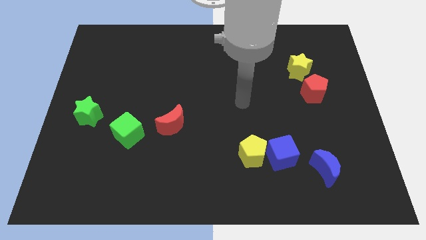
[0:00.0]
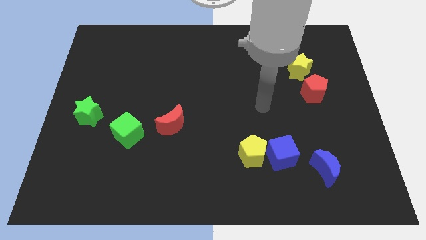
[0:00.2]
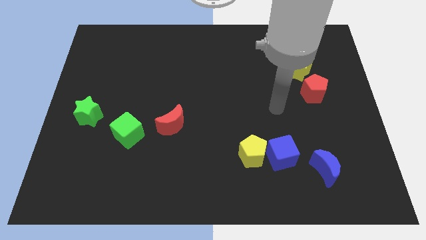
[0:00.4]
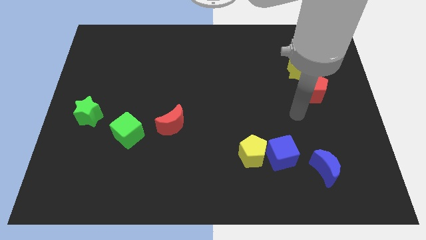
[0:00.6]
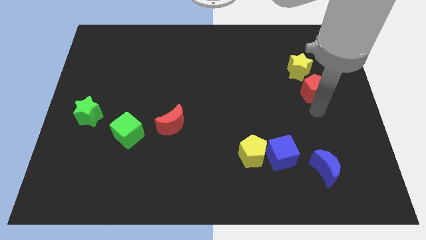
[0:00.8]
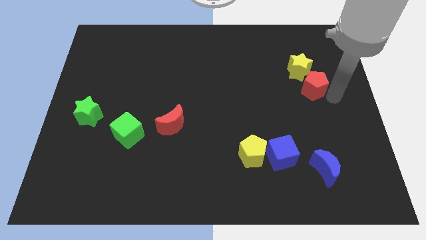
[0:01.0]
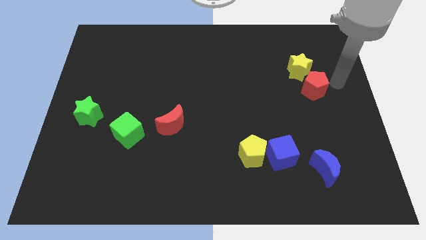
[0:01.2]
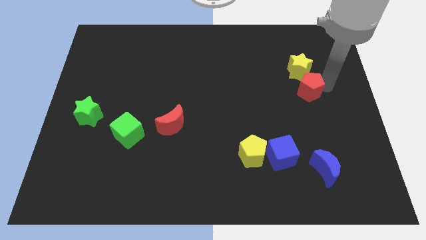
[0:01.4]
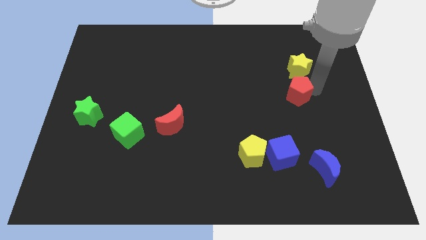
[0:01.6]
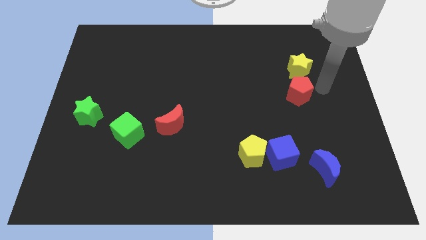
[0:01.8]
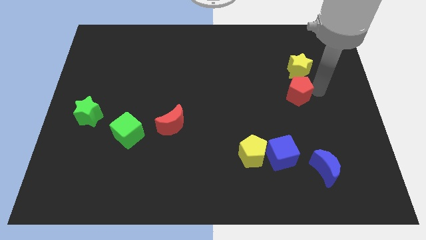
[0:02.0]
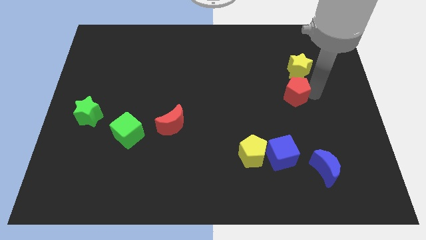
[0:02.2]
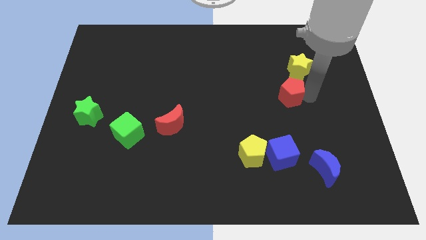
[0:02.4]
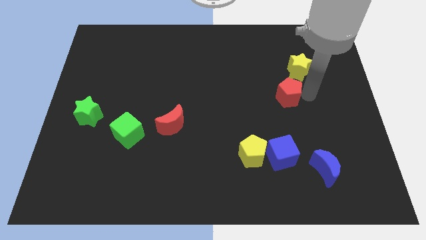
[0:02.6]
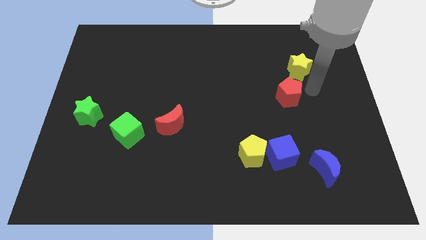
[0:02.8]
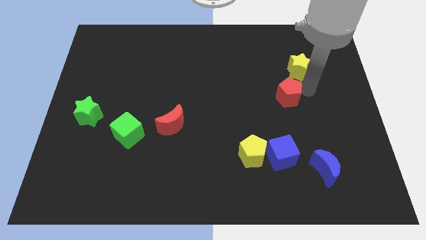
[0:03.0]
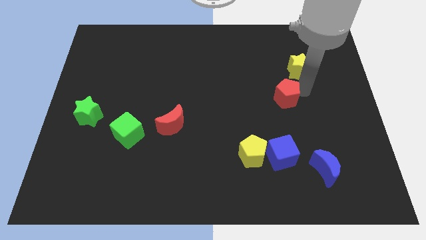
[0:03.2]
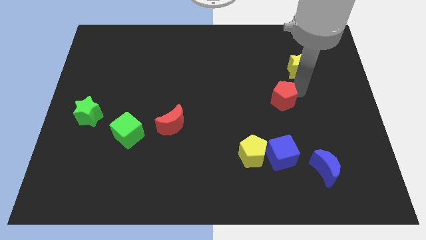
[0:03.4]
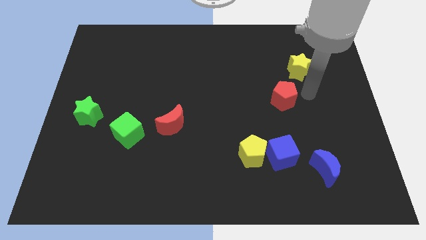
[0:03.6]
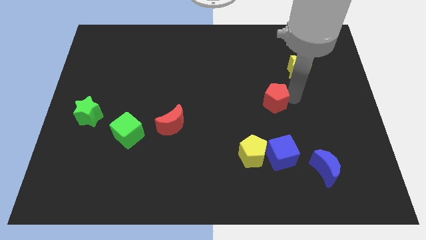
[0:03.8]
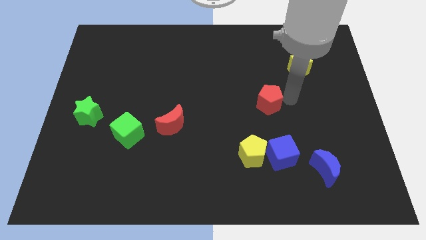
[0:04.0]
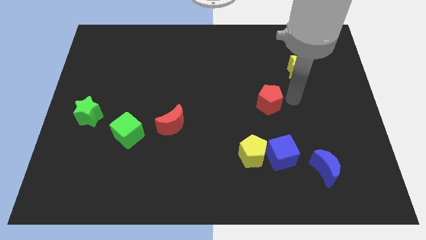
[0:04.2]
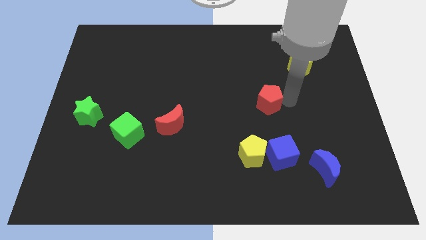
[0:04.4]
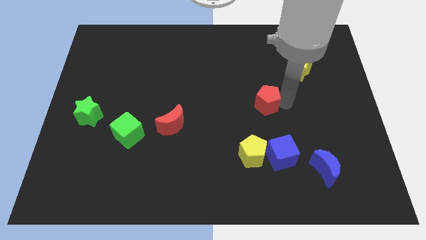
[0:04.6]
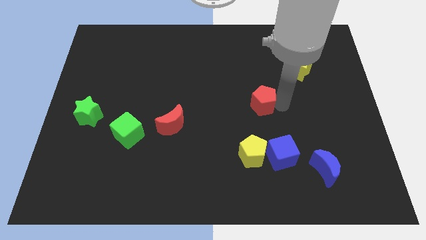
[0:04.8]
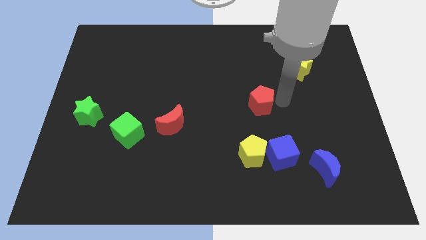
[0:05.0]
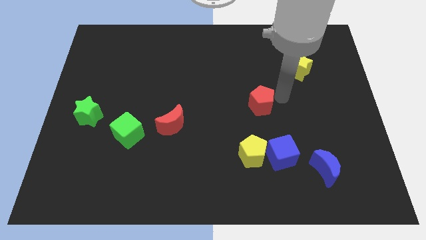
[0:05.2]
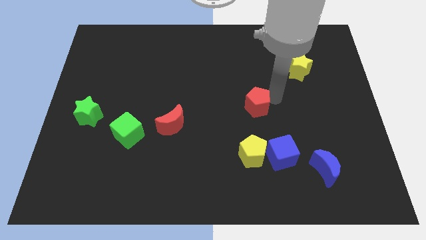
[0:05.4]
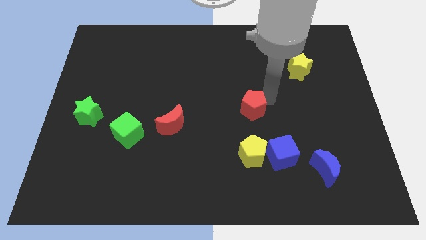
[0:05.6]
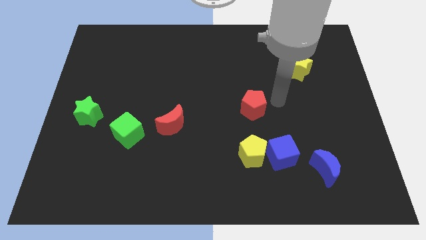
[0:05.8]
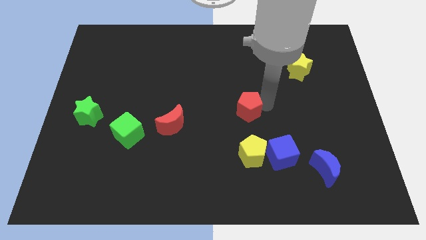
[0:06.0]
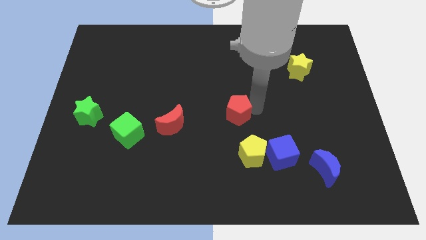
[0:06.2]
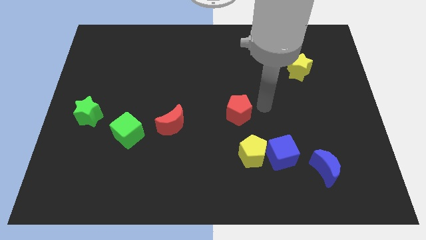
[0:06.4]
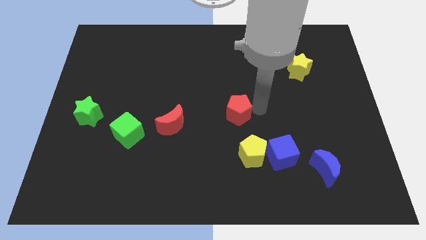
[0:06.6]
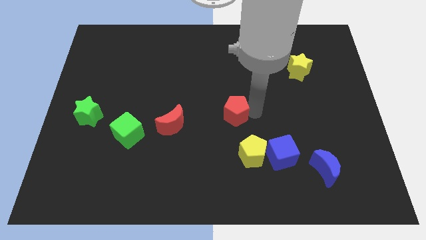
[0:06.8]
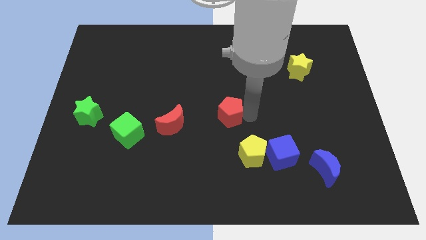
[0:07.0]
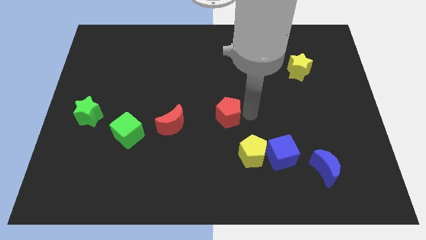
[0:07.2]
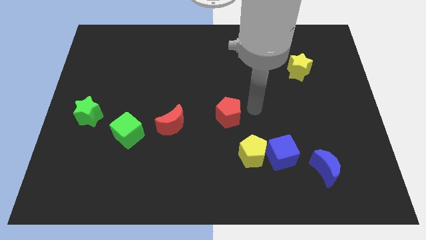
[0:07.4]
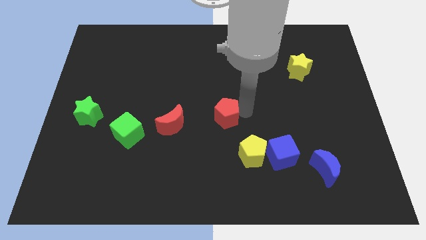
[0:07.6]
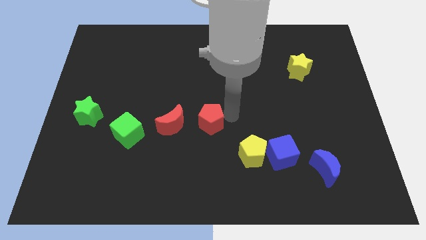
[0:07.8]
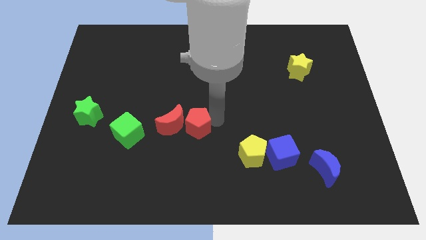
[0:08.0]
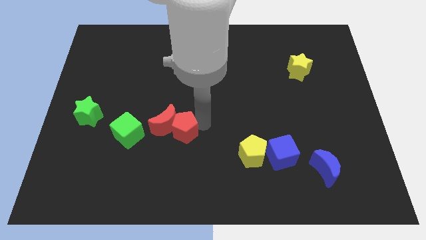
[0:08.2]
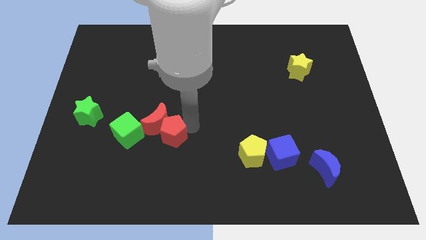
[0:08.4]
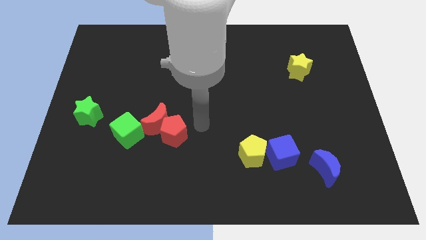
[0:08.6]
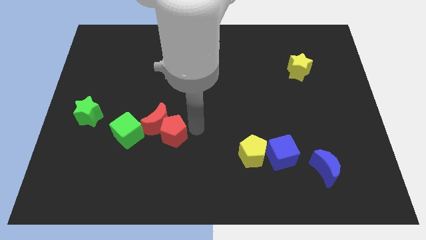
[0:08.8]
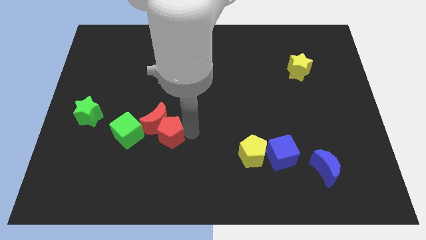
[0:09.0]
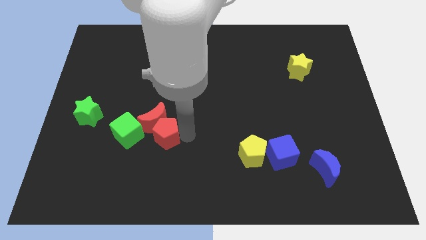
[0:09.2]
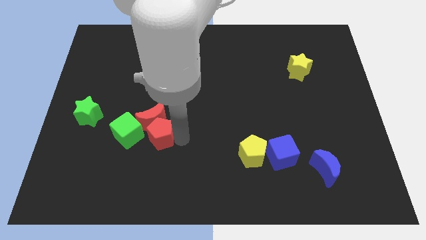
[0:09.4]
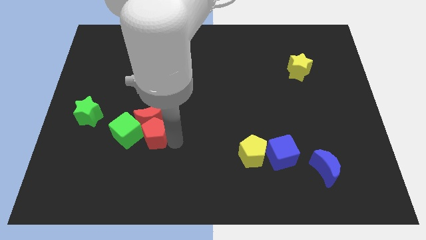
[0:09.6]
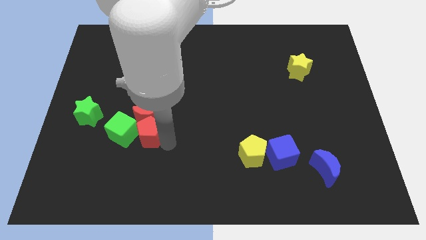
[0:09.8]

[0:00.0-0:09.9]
push the red pentagon next to the green cube

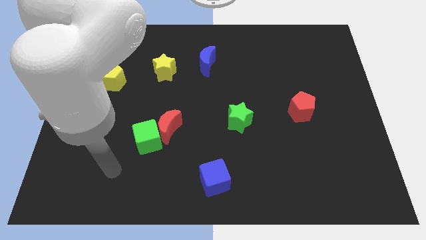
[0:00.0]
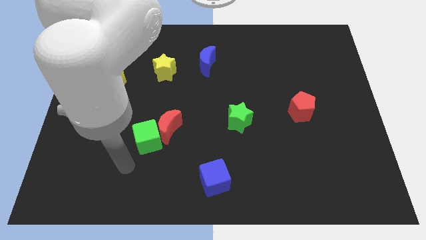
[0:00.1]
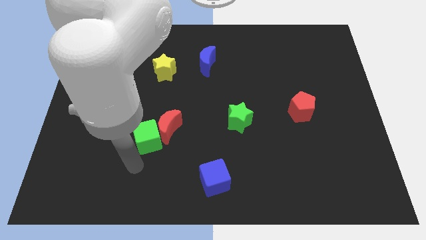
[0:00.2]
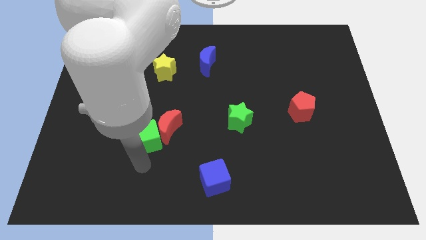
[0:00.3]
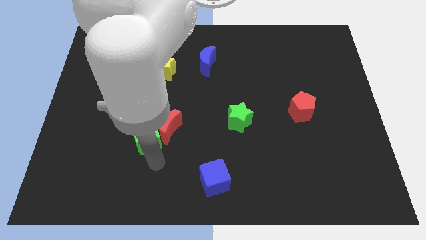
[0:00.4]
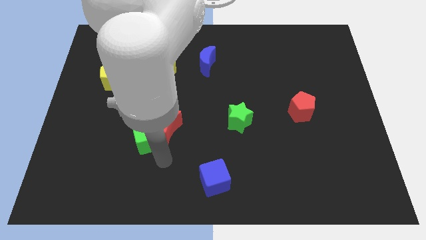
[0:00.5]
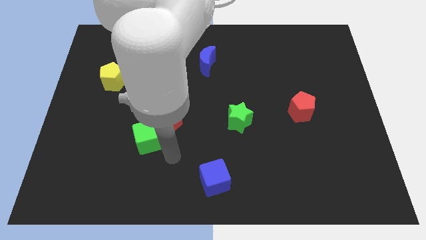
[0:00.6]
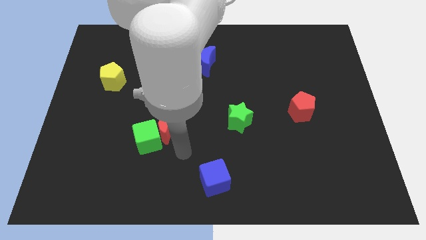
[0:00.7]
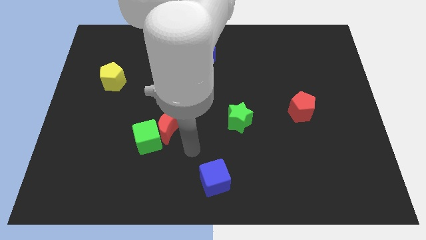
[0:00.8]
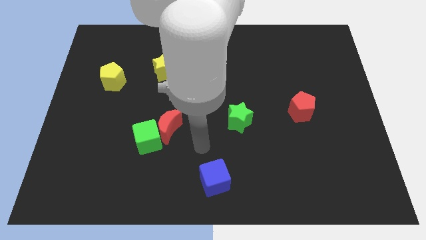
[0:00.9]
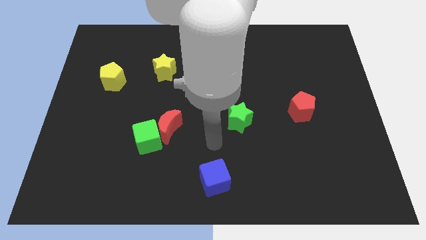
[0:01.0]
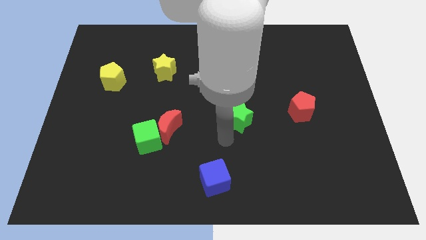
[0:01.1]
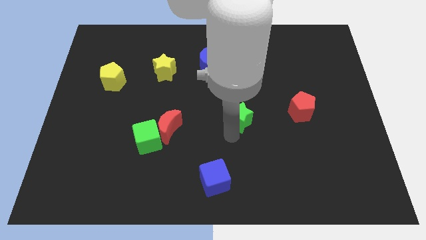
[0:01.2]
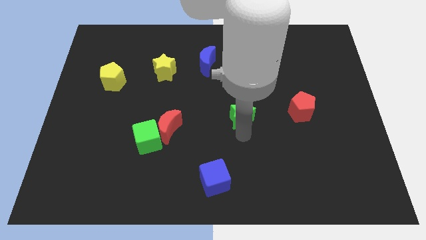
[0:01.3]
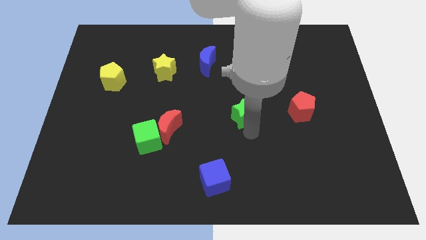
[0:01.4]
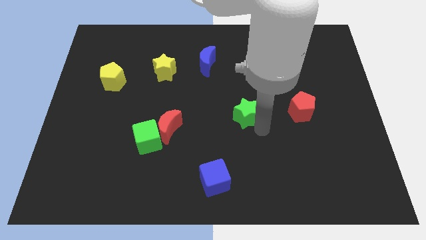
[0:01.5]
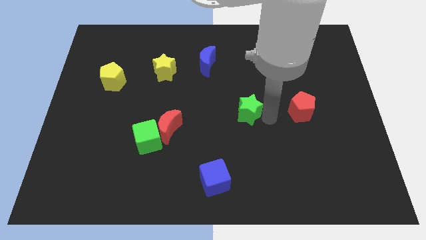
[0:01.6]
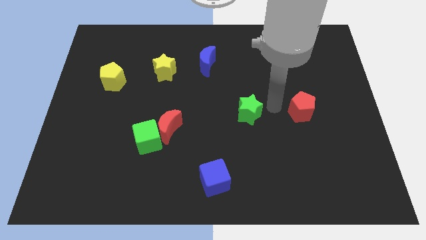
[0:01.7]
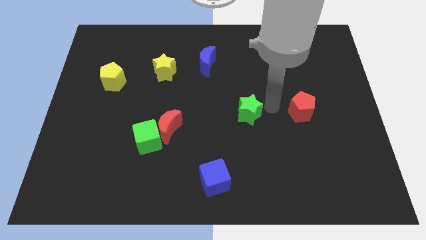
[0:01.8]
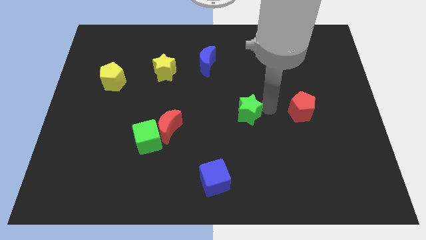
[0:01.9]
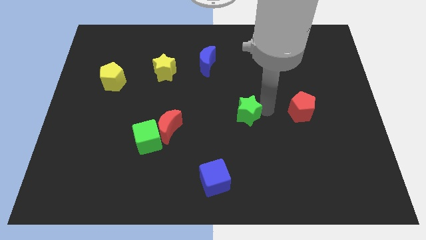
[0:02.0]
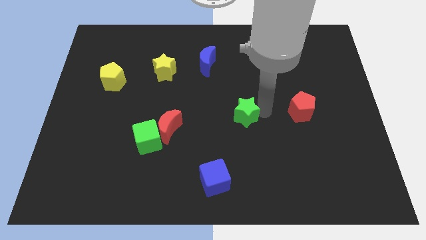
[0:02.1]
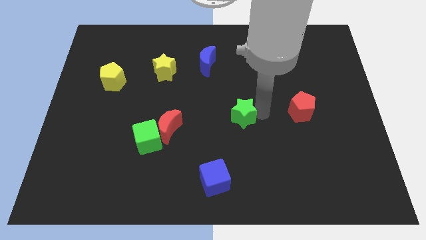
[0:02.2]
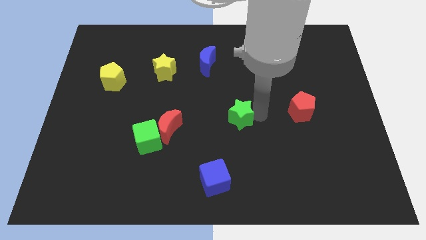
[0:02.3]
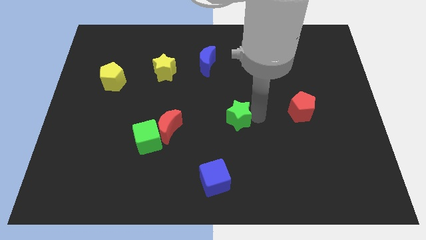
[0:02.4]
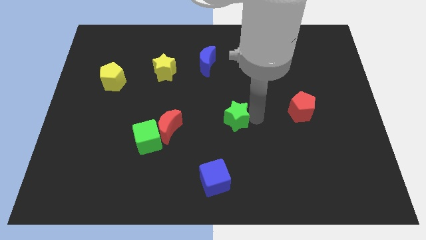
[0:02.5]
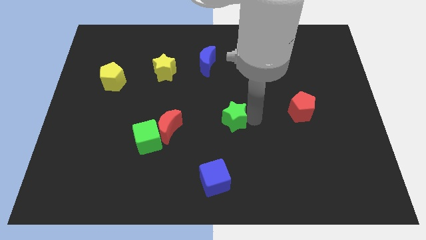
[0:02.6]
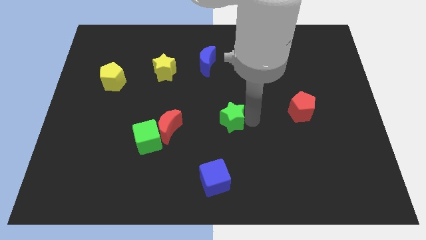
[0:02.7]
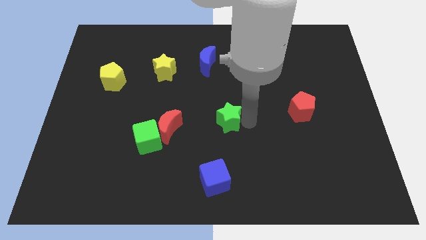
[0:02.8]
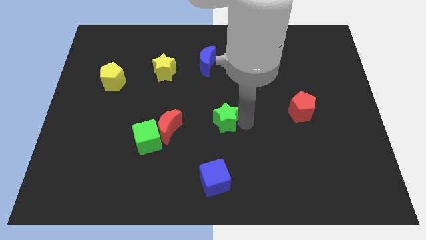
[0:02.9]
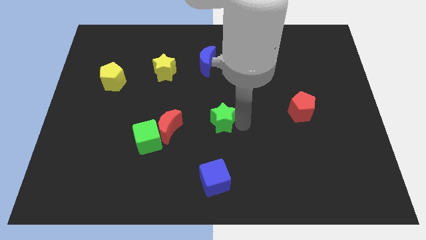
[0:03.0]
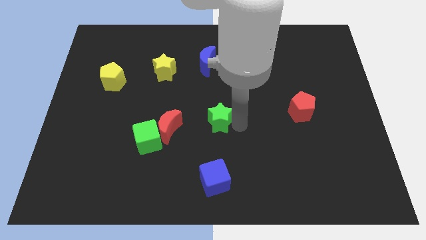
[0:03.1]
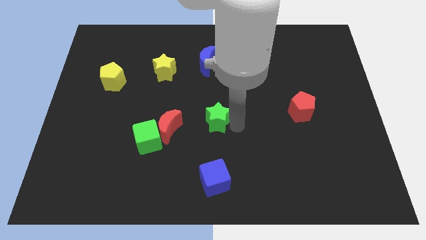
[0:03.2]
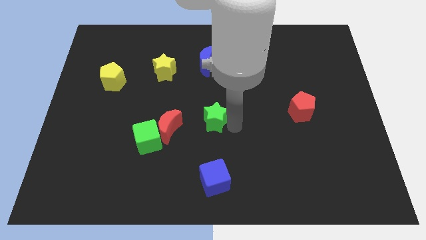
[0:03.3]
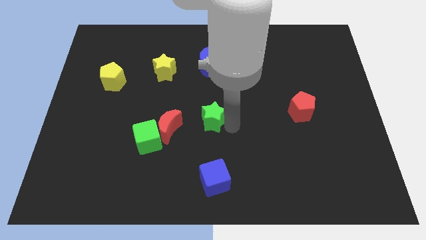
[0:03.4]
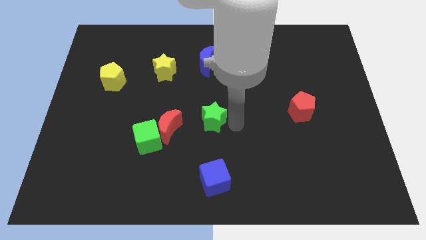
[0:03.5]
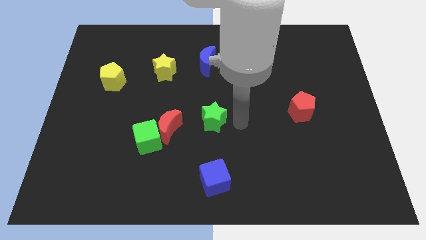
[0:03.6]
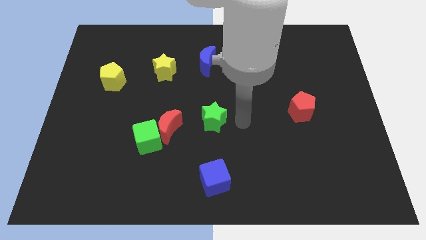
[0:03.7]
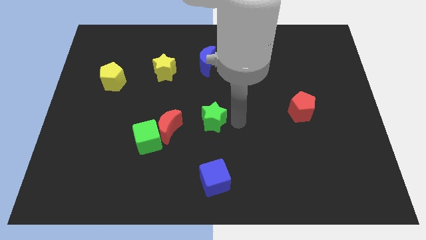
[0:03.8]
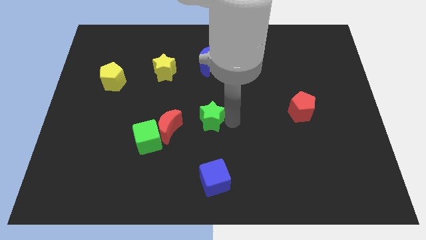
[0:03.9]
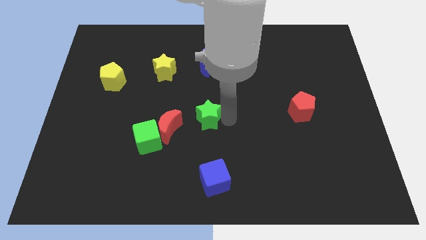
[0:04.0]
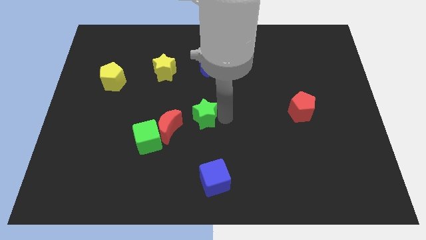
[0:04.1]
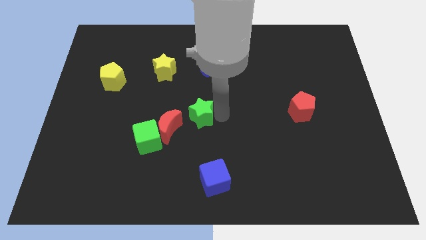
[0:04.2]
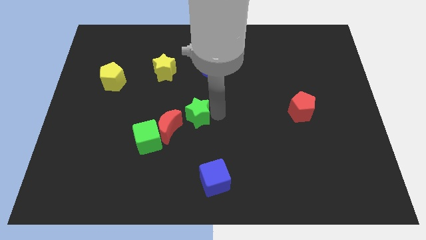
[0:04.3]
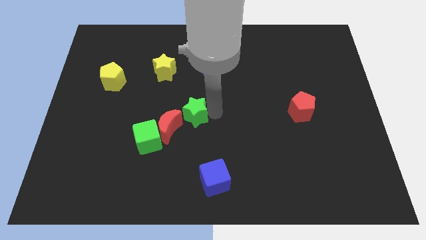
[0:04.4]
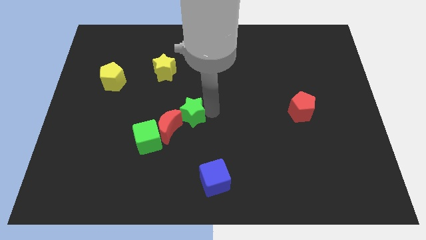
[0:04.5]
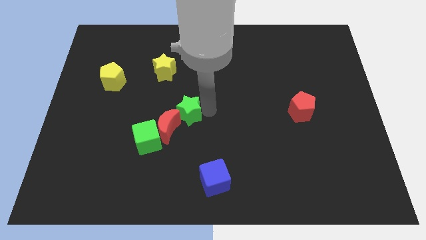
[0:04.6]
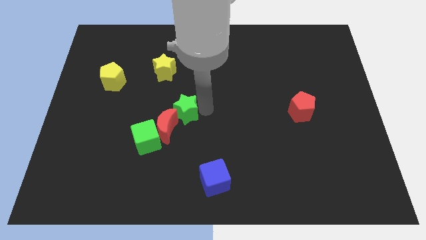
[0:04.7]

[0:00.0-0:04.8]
put the green star to the red moon
